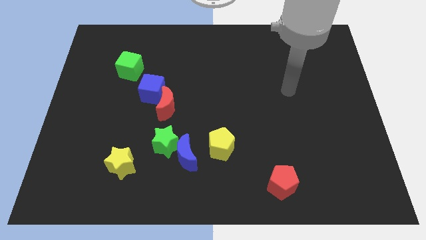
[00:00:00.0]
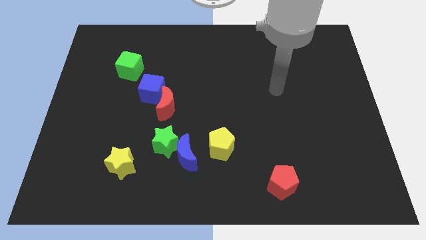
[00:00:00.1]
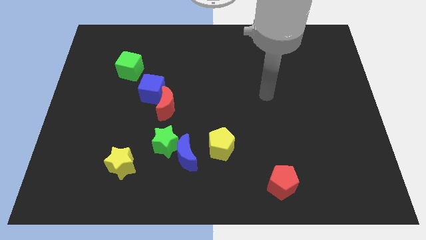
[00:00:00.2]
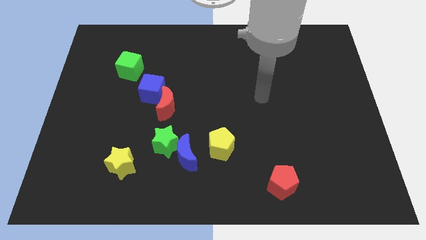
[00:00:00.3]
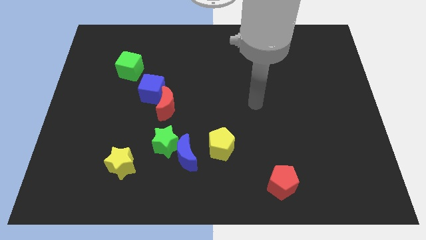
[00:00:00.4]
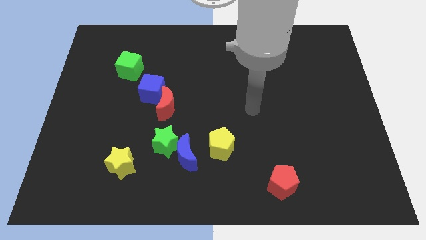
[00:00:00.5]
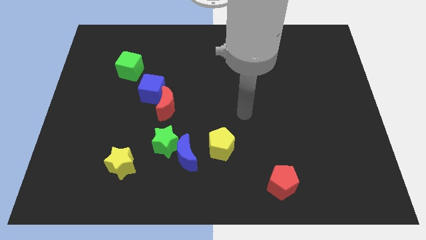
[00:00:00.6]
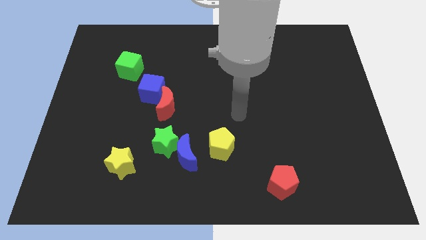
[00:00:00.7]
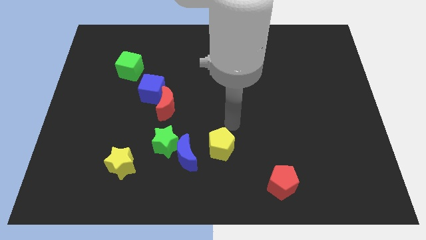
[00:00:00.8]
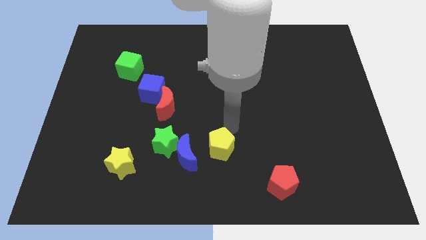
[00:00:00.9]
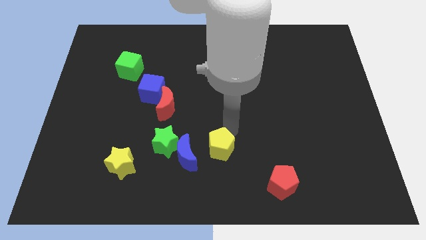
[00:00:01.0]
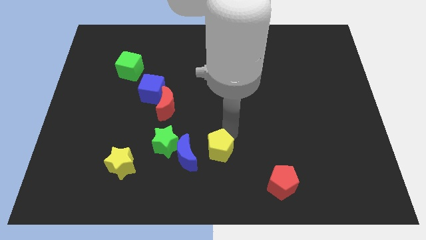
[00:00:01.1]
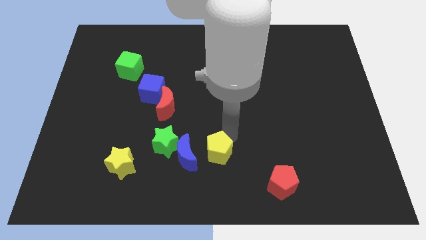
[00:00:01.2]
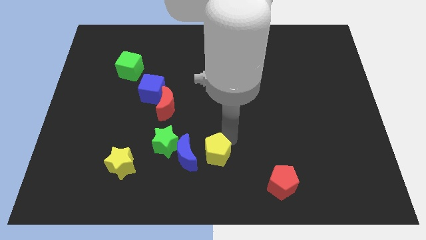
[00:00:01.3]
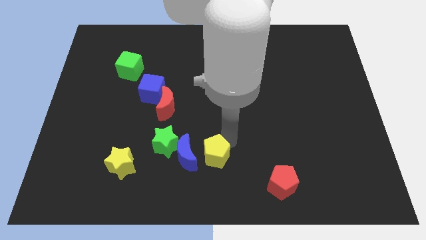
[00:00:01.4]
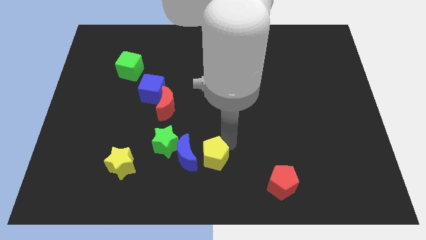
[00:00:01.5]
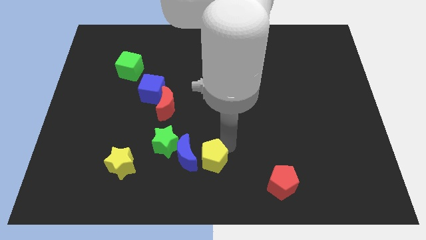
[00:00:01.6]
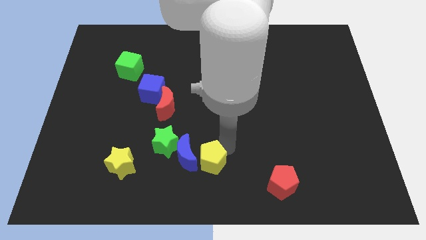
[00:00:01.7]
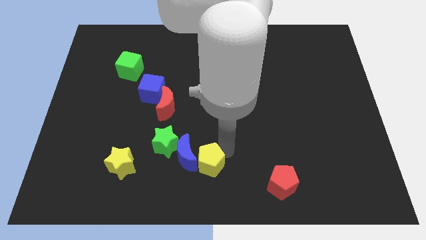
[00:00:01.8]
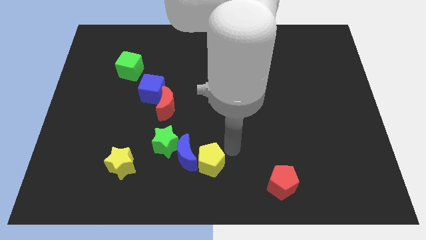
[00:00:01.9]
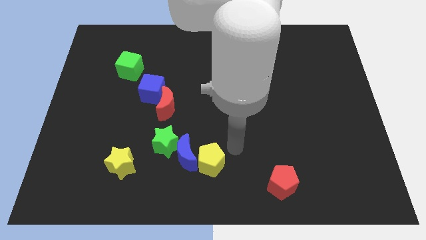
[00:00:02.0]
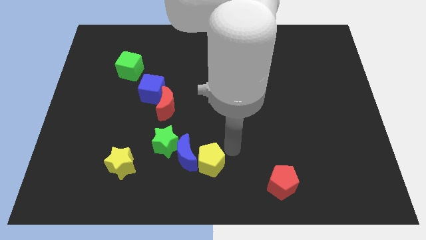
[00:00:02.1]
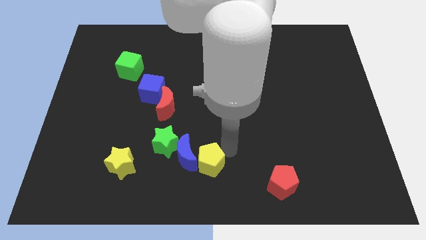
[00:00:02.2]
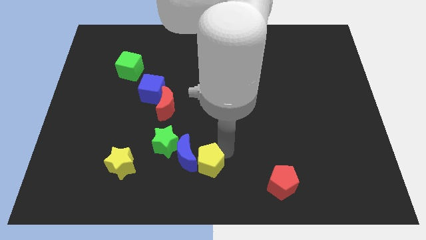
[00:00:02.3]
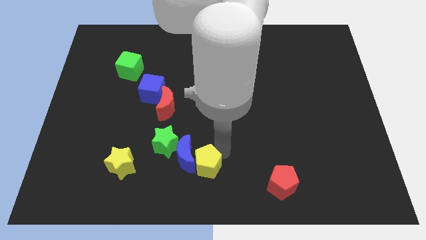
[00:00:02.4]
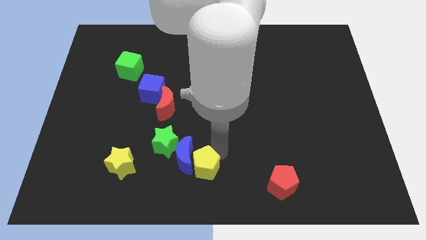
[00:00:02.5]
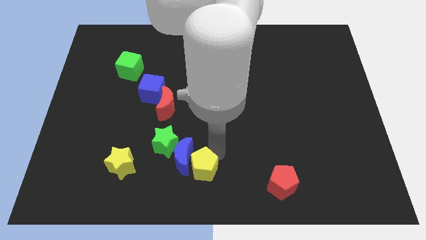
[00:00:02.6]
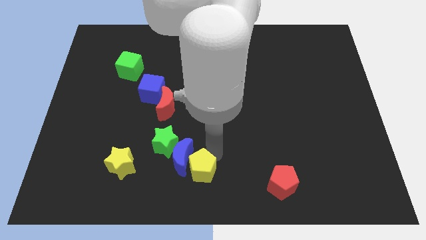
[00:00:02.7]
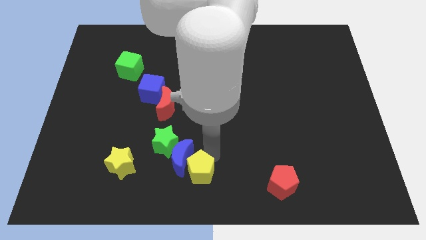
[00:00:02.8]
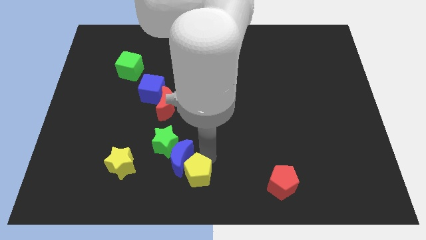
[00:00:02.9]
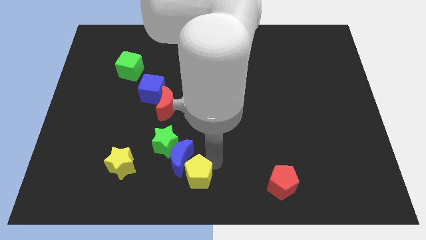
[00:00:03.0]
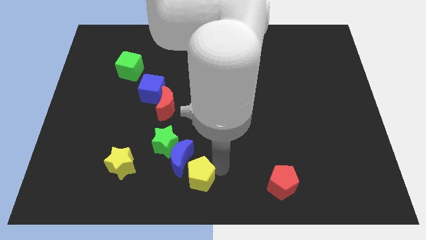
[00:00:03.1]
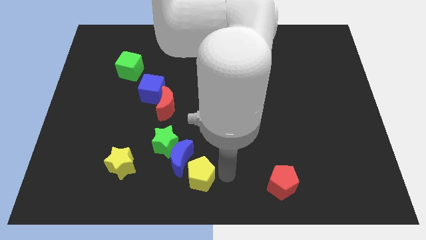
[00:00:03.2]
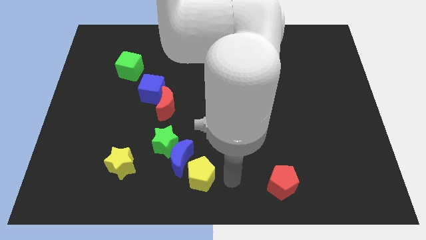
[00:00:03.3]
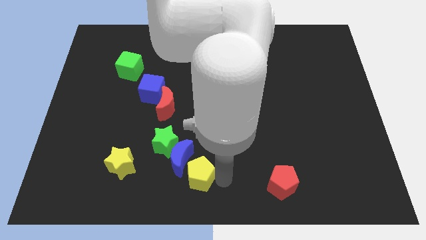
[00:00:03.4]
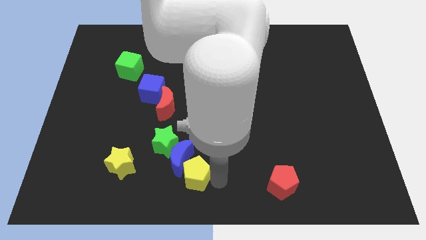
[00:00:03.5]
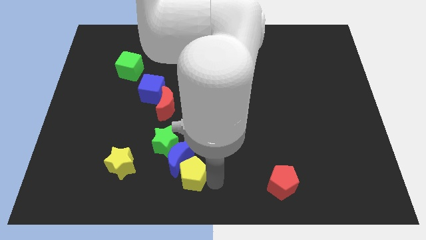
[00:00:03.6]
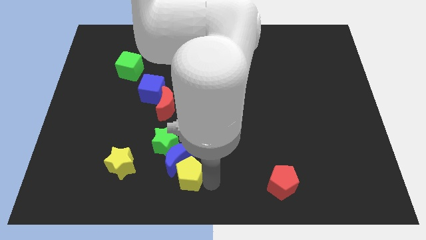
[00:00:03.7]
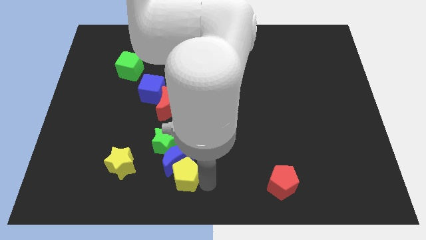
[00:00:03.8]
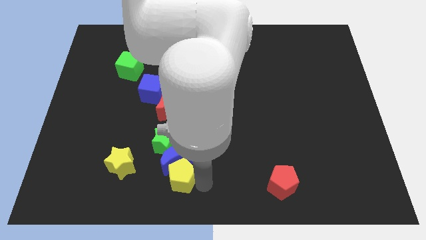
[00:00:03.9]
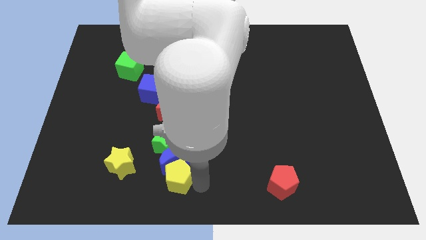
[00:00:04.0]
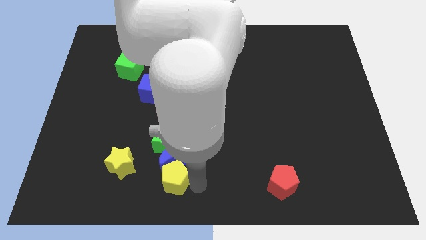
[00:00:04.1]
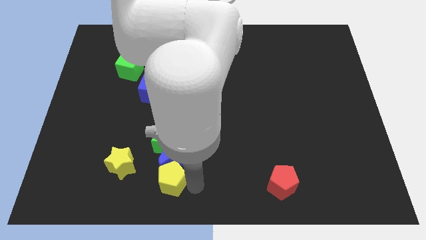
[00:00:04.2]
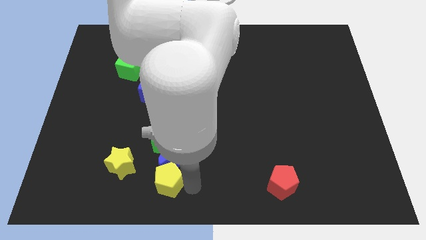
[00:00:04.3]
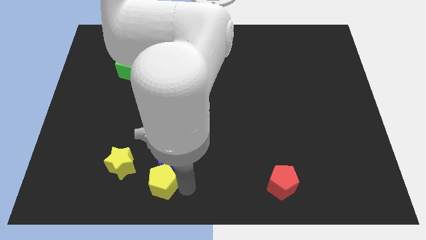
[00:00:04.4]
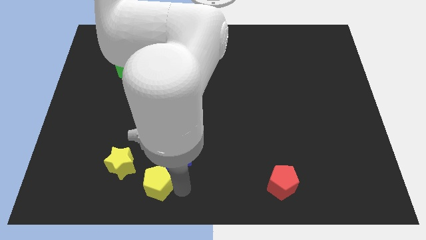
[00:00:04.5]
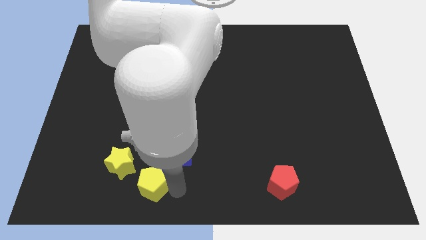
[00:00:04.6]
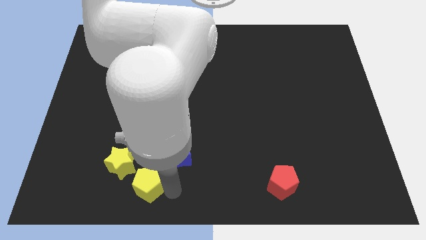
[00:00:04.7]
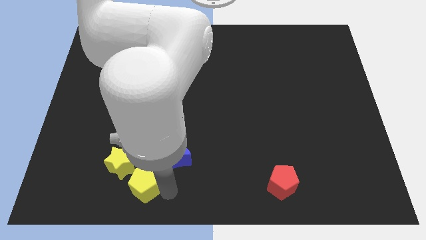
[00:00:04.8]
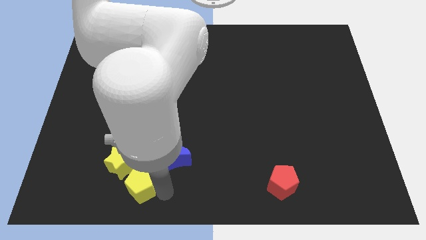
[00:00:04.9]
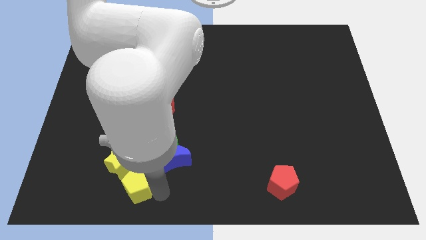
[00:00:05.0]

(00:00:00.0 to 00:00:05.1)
slide the yellow pentagon towards the yellow star

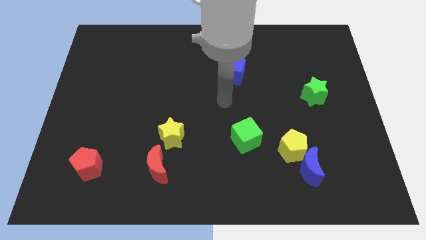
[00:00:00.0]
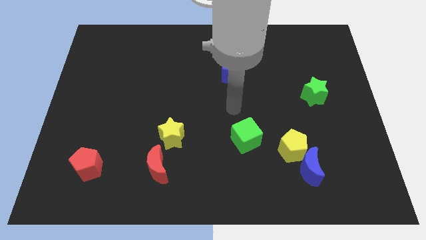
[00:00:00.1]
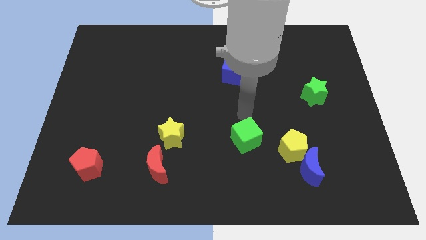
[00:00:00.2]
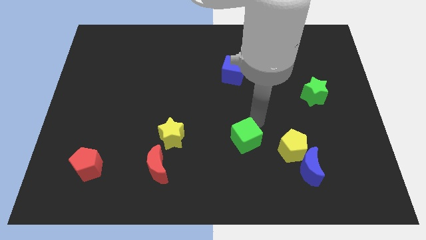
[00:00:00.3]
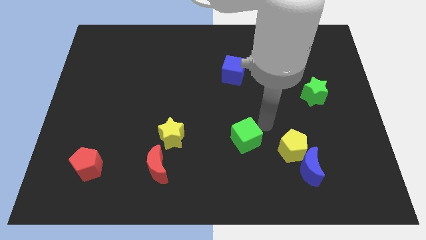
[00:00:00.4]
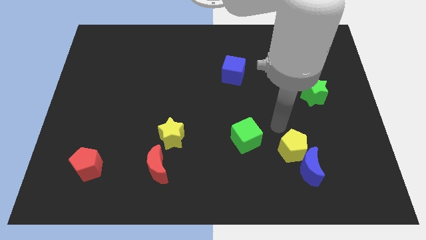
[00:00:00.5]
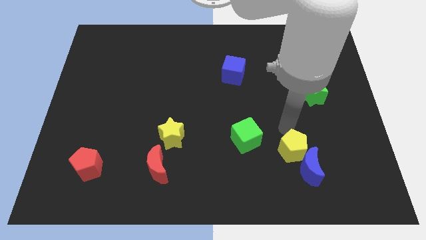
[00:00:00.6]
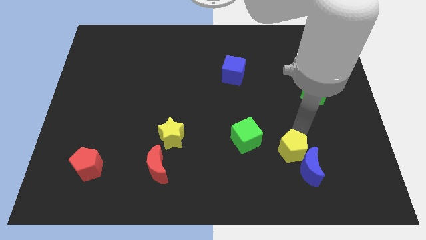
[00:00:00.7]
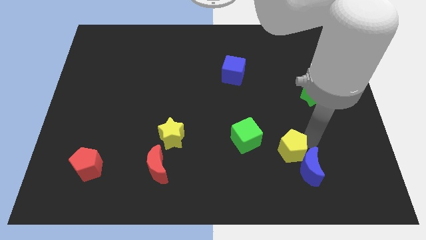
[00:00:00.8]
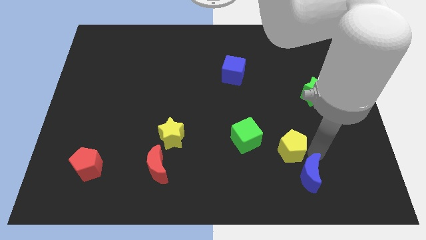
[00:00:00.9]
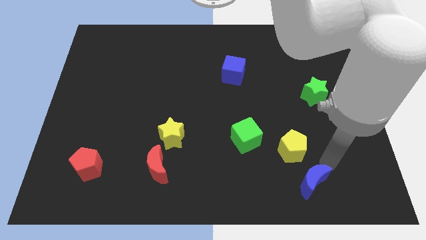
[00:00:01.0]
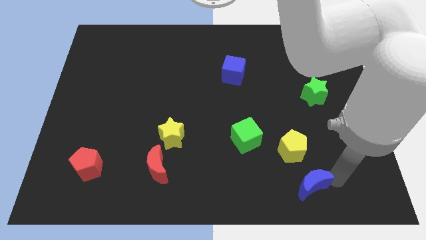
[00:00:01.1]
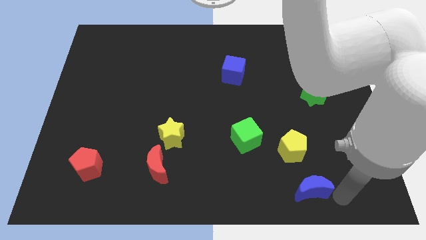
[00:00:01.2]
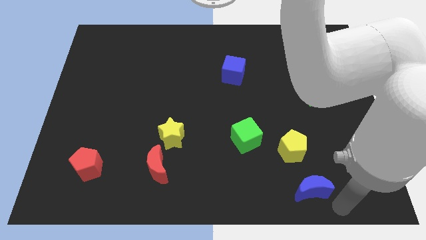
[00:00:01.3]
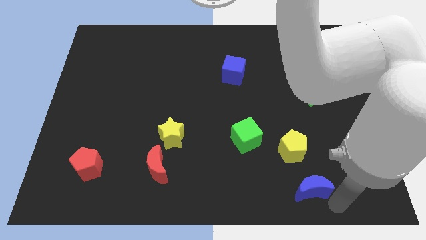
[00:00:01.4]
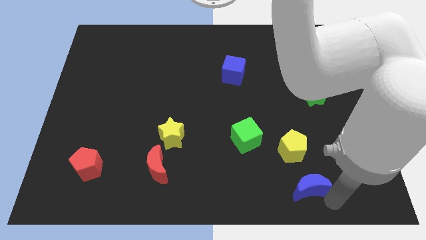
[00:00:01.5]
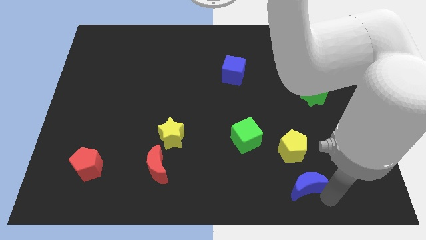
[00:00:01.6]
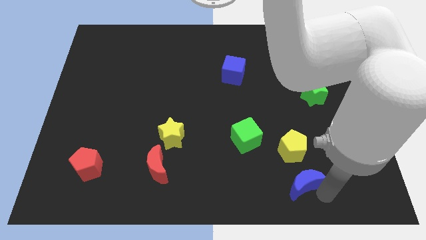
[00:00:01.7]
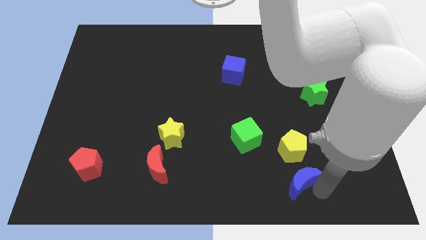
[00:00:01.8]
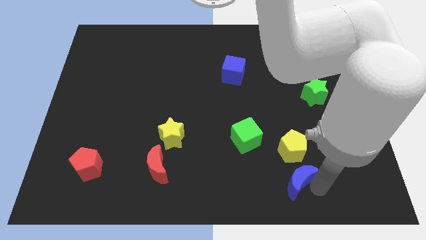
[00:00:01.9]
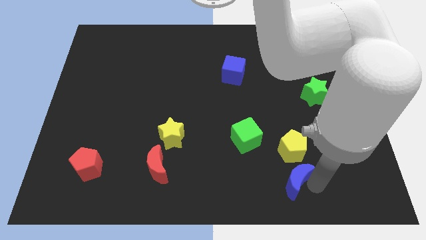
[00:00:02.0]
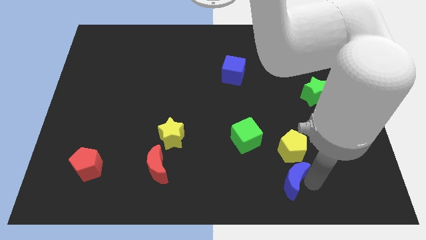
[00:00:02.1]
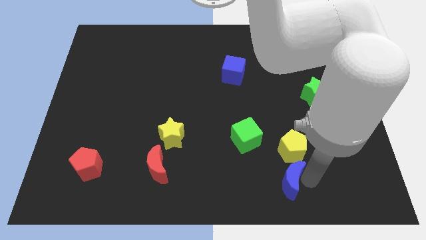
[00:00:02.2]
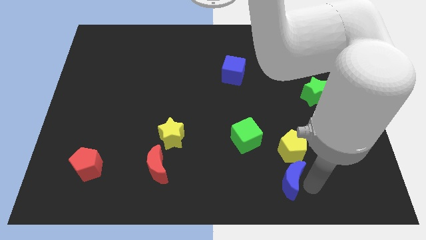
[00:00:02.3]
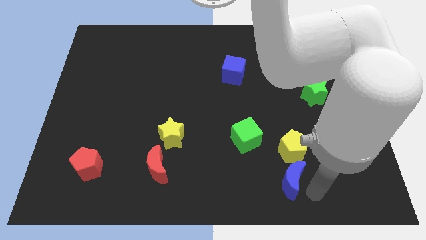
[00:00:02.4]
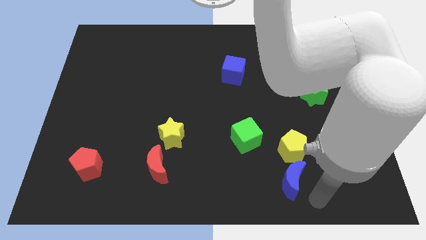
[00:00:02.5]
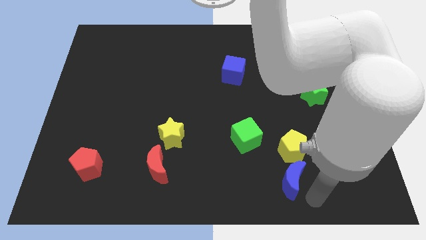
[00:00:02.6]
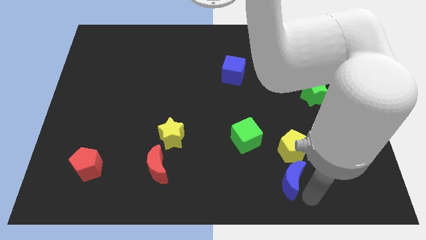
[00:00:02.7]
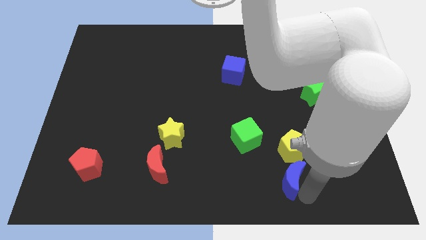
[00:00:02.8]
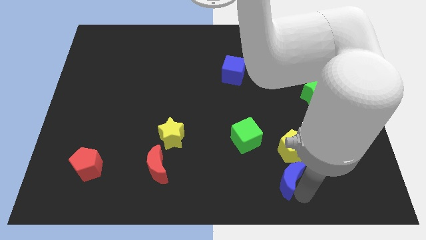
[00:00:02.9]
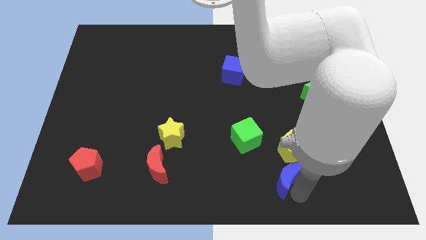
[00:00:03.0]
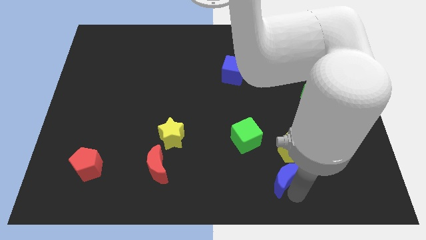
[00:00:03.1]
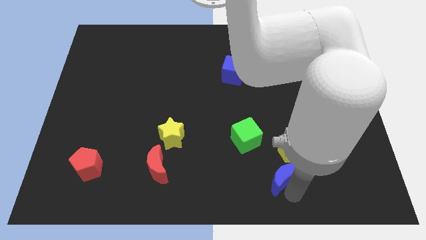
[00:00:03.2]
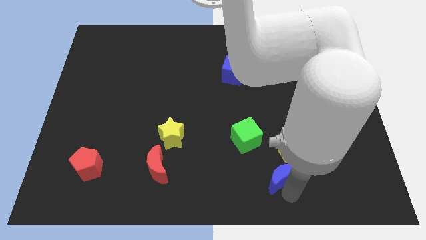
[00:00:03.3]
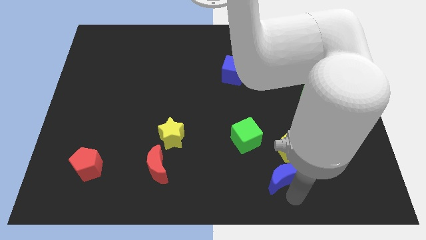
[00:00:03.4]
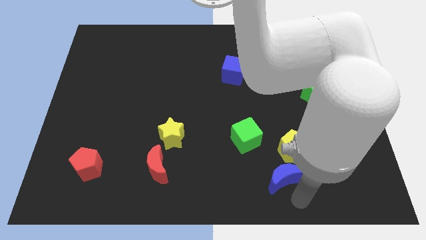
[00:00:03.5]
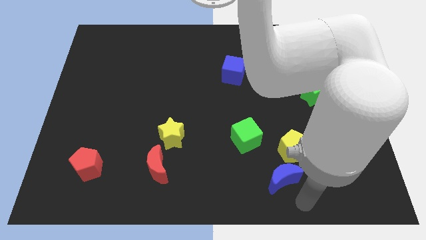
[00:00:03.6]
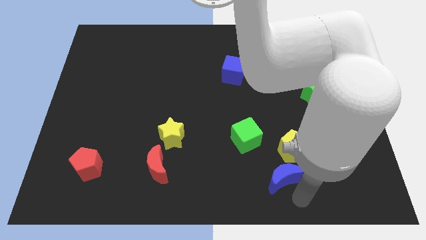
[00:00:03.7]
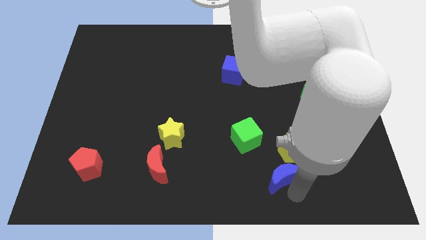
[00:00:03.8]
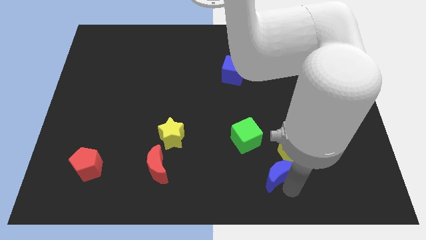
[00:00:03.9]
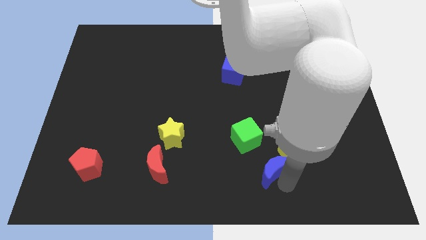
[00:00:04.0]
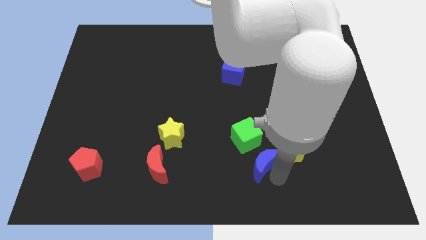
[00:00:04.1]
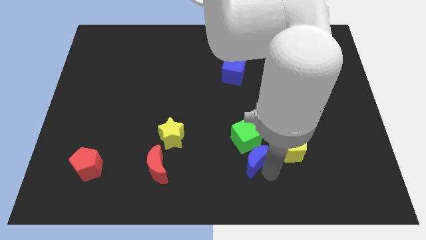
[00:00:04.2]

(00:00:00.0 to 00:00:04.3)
slide the blue moon close to the green cube
